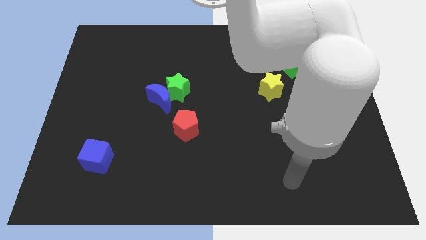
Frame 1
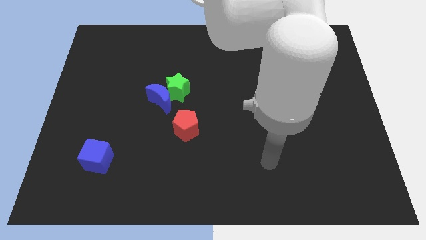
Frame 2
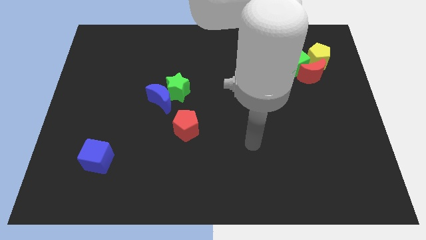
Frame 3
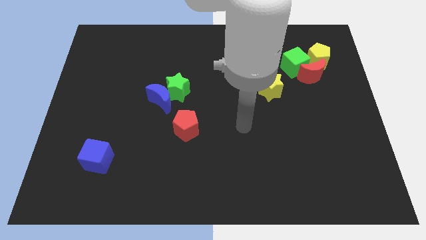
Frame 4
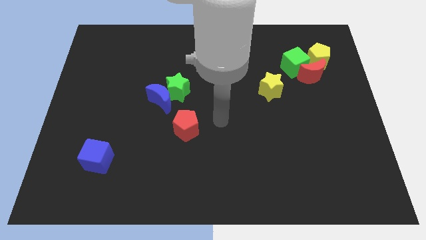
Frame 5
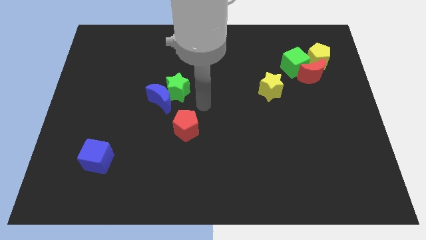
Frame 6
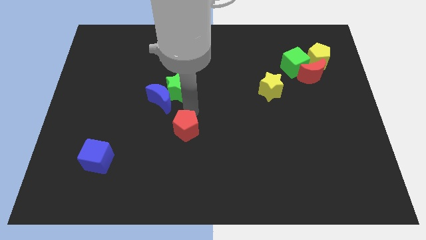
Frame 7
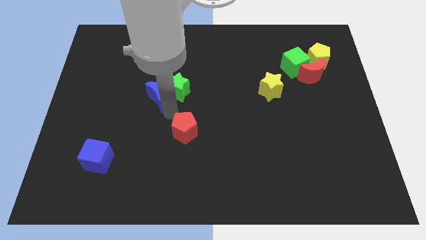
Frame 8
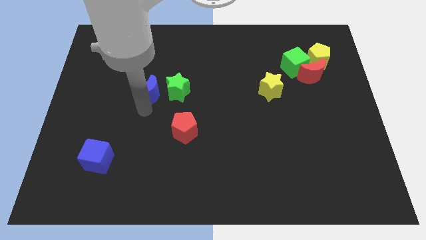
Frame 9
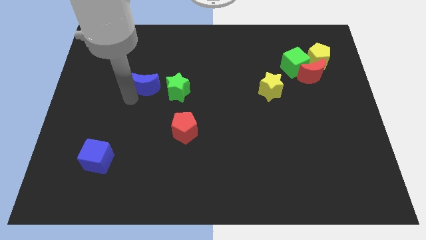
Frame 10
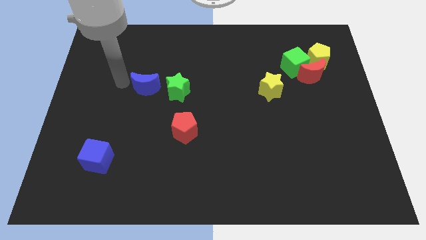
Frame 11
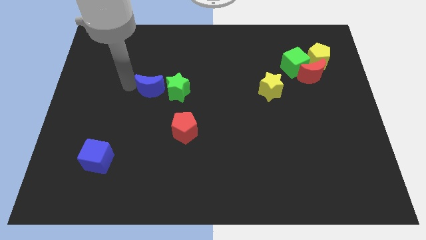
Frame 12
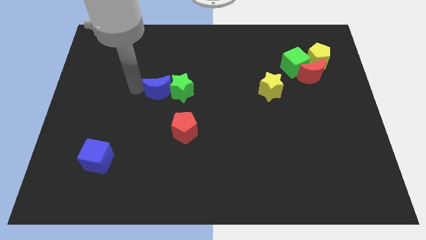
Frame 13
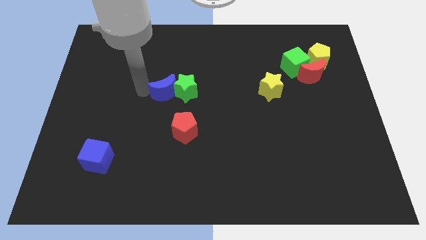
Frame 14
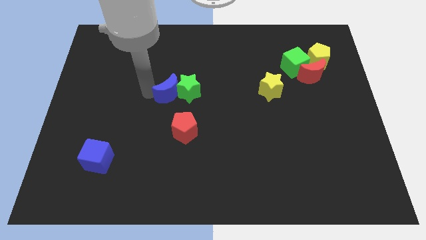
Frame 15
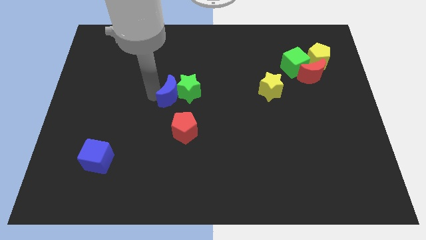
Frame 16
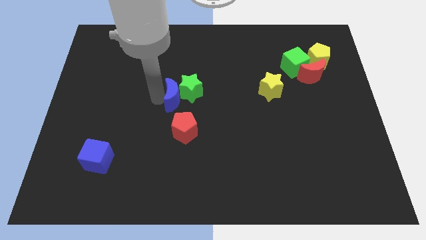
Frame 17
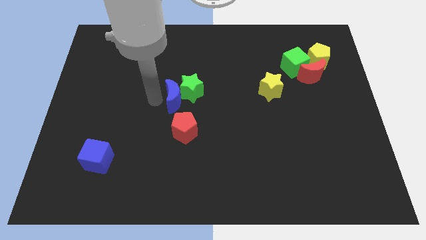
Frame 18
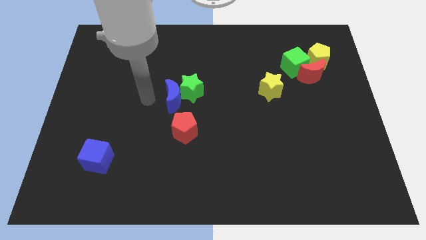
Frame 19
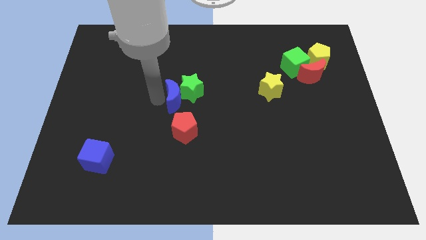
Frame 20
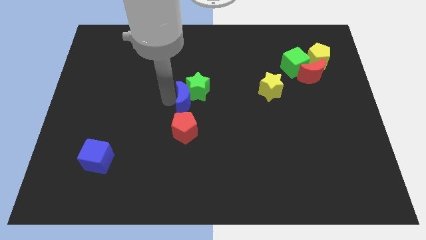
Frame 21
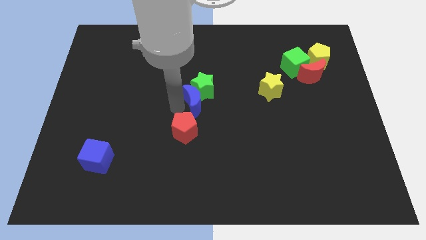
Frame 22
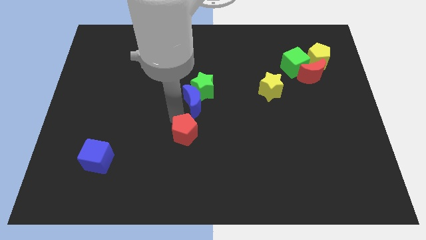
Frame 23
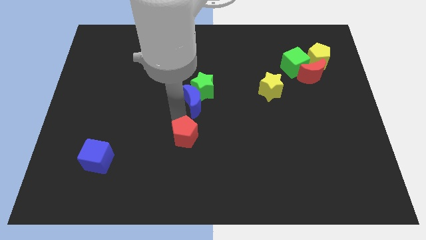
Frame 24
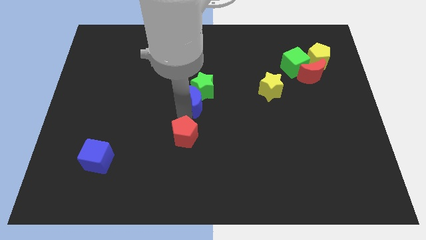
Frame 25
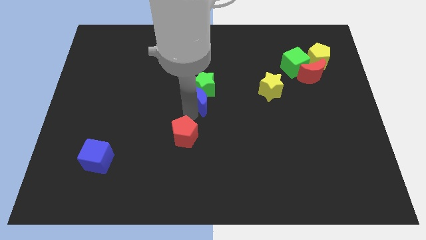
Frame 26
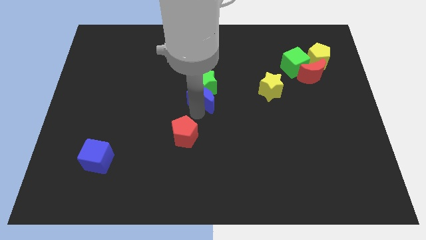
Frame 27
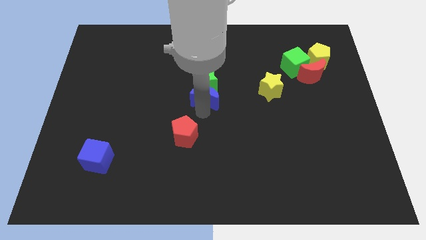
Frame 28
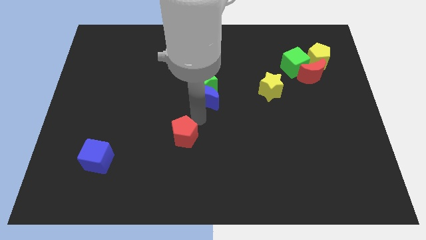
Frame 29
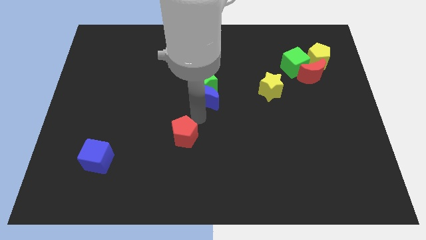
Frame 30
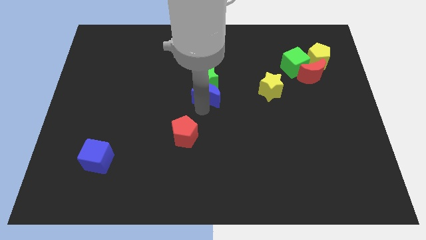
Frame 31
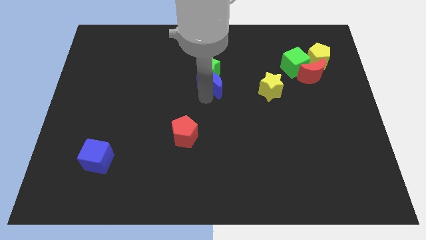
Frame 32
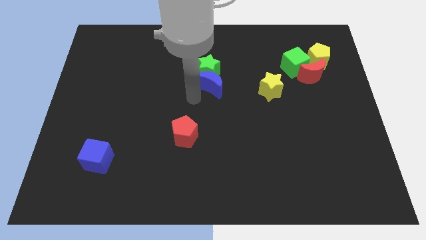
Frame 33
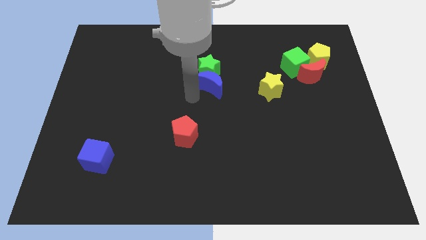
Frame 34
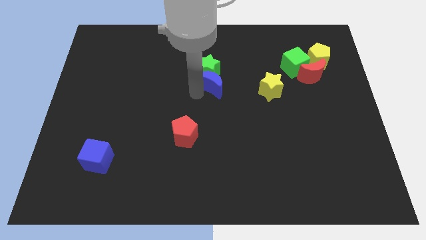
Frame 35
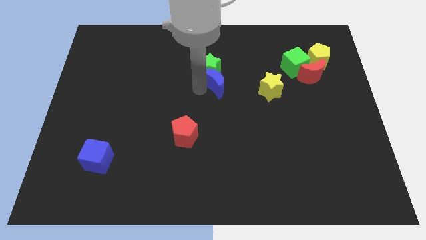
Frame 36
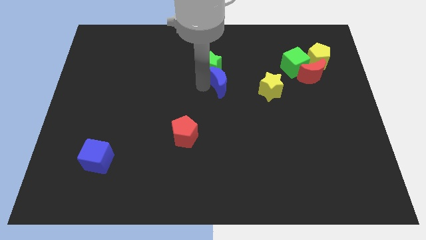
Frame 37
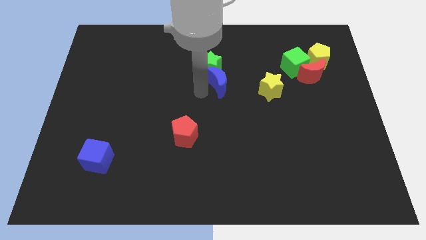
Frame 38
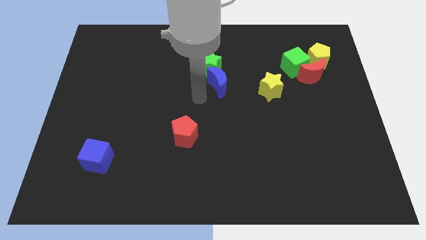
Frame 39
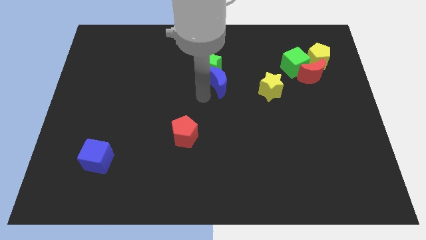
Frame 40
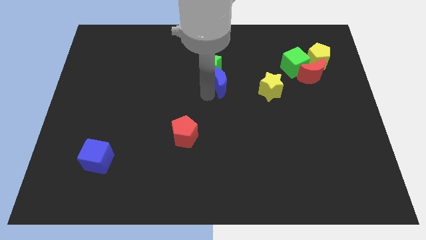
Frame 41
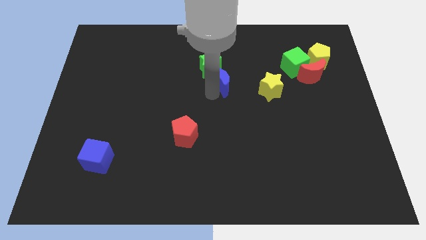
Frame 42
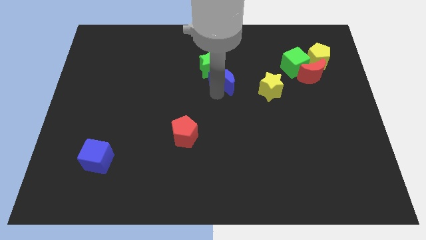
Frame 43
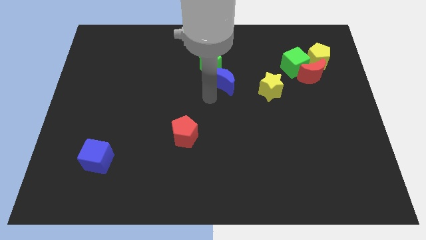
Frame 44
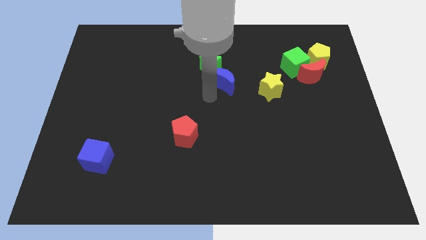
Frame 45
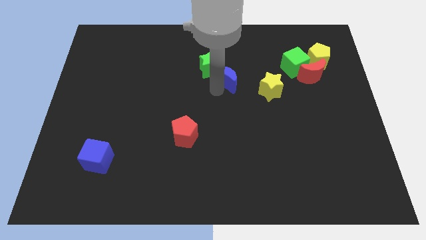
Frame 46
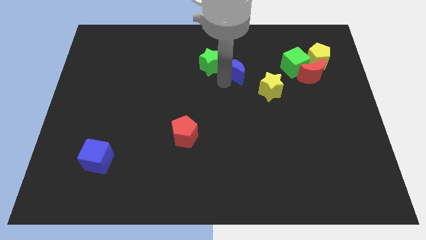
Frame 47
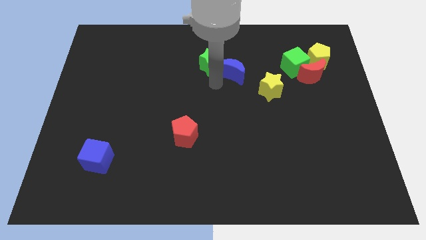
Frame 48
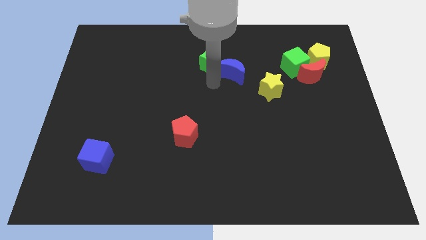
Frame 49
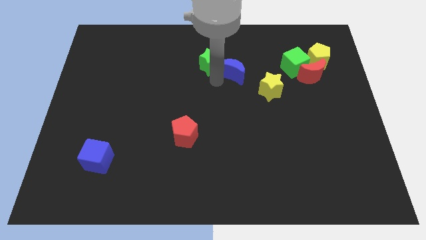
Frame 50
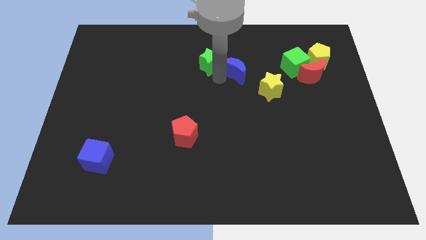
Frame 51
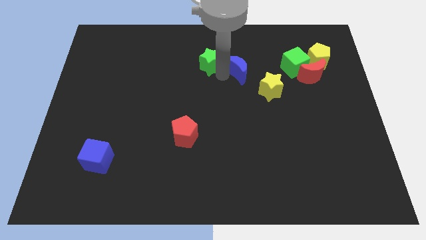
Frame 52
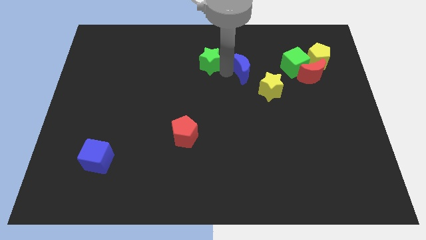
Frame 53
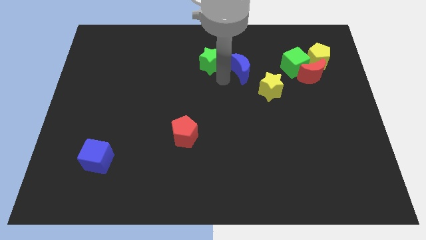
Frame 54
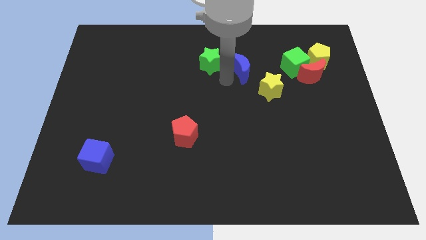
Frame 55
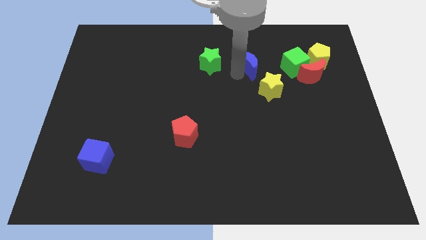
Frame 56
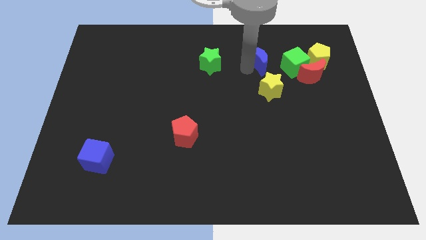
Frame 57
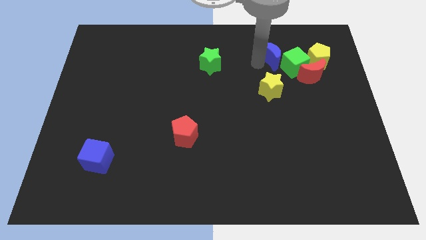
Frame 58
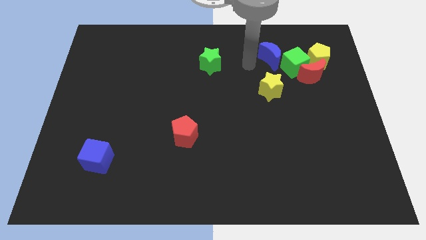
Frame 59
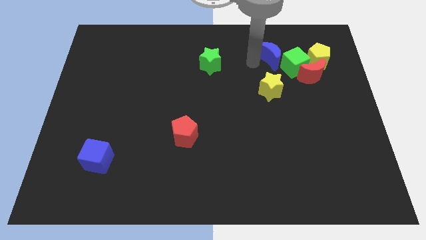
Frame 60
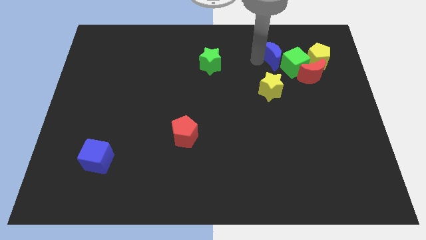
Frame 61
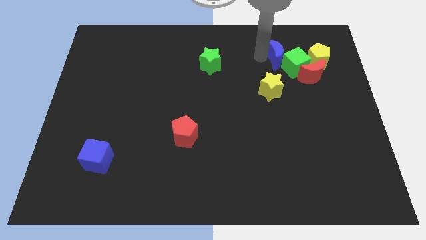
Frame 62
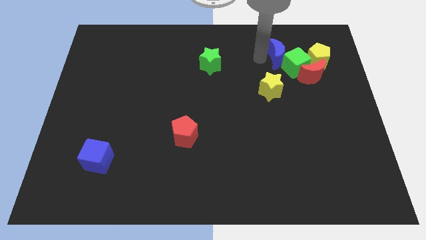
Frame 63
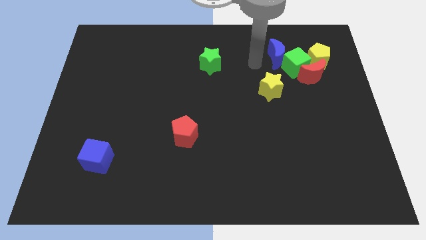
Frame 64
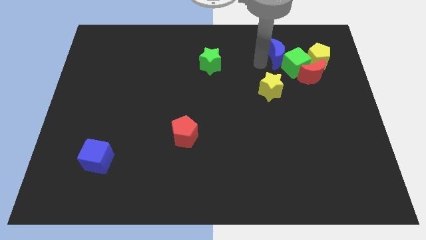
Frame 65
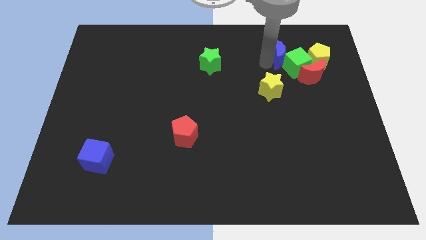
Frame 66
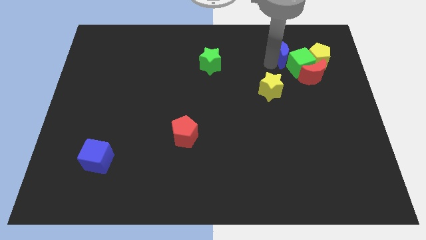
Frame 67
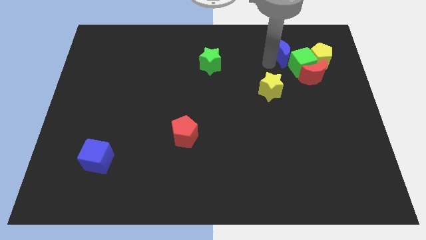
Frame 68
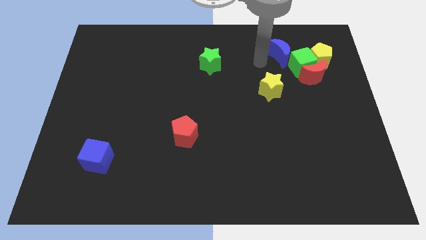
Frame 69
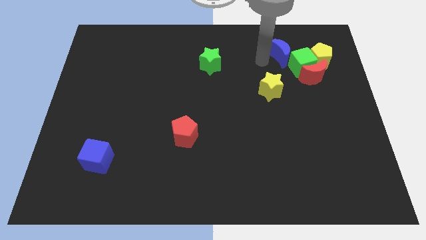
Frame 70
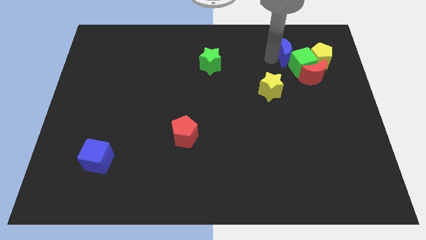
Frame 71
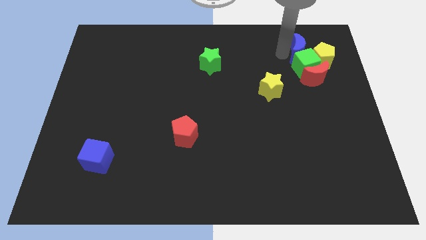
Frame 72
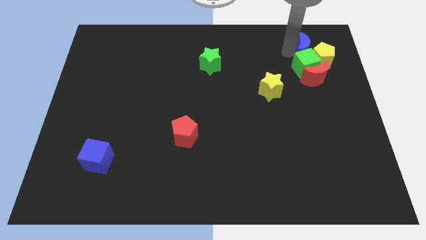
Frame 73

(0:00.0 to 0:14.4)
put the blue moon towards the yellow pentagon

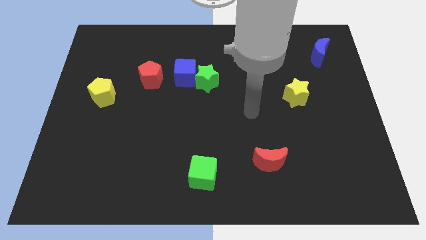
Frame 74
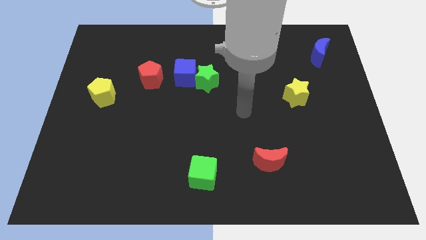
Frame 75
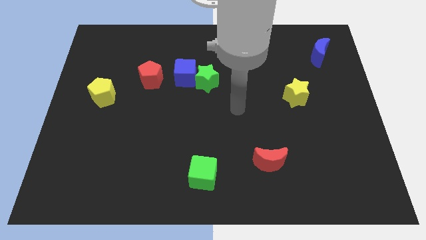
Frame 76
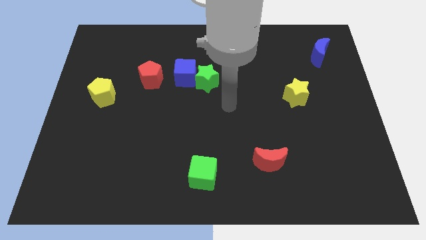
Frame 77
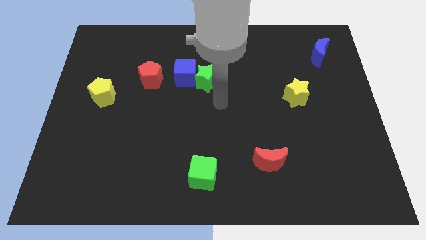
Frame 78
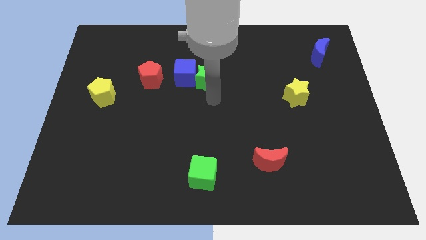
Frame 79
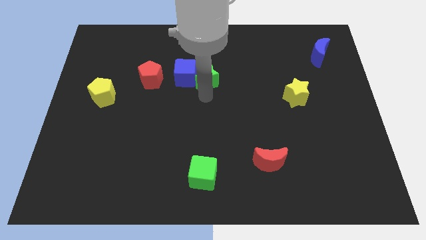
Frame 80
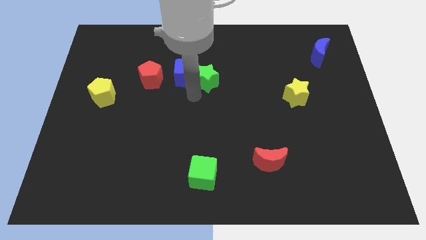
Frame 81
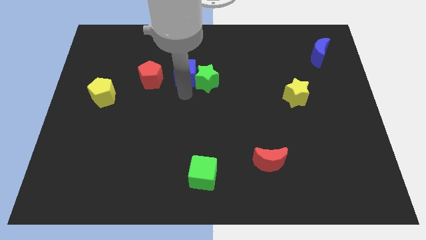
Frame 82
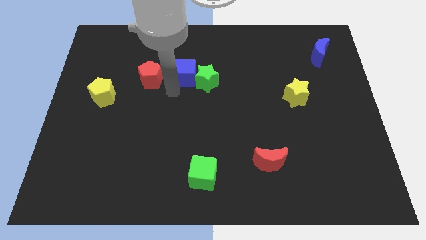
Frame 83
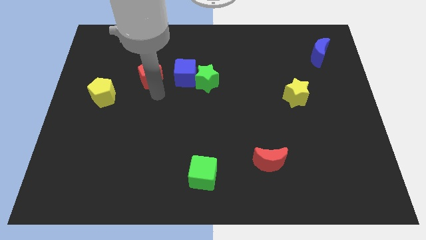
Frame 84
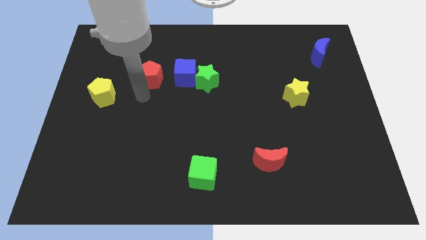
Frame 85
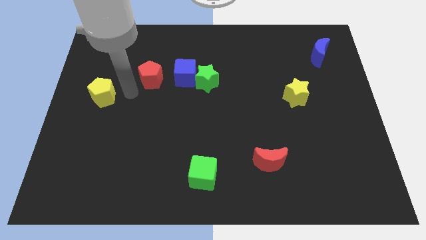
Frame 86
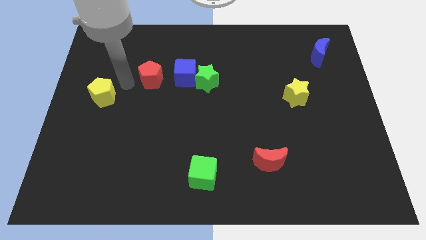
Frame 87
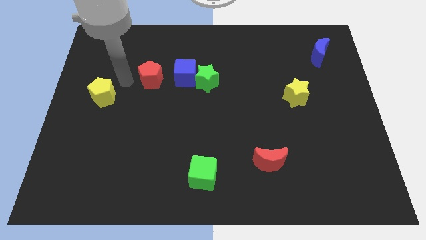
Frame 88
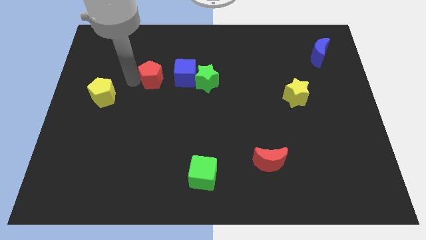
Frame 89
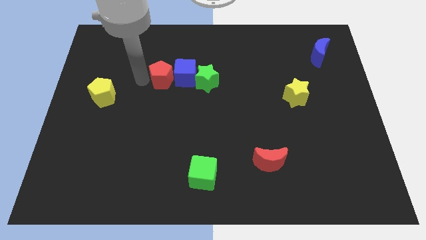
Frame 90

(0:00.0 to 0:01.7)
put the red pentagon close to the blue cube
